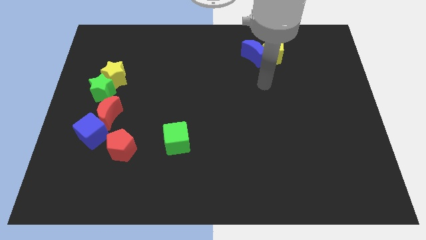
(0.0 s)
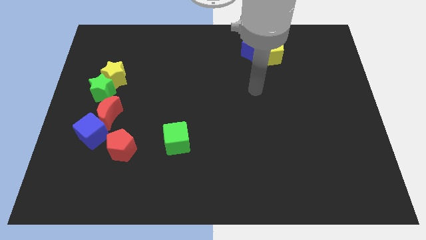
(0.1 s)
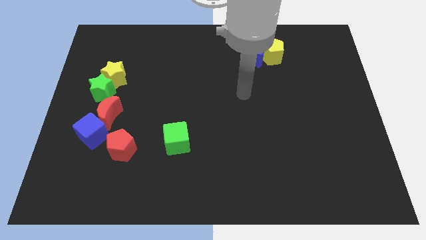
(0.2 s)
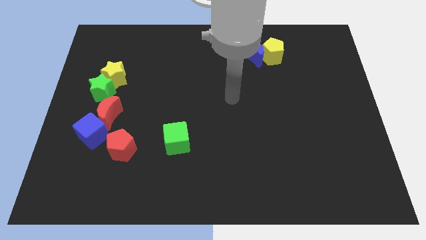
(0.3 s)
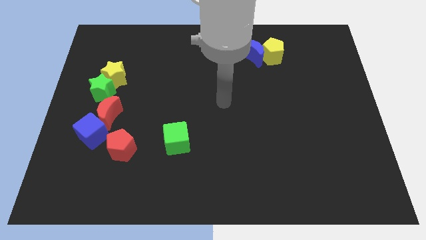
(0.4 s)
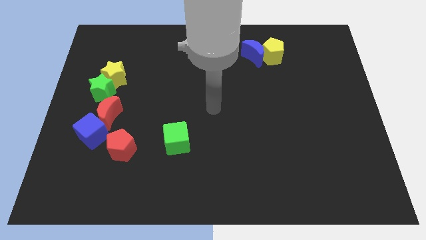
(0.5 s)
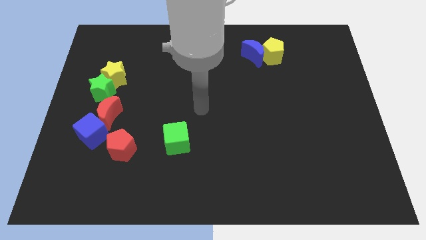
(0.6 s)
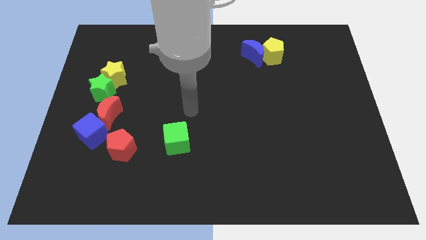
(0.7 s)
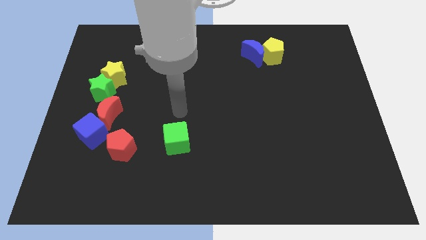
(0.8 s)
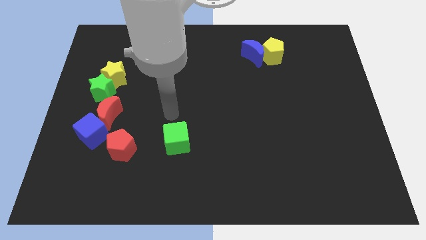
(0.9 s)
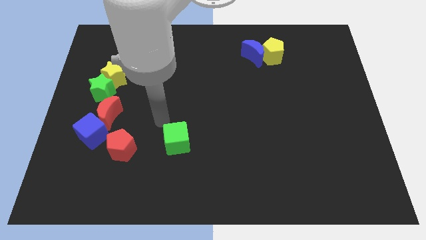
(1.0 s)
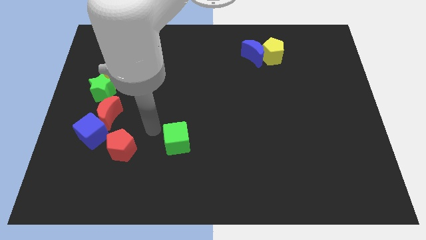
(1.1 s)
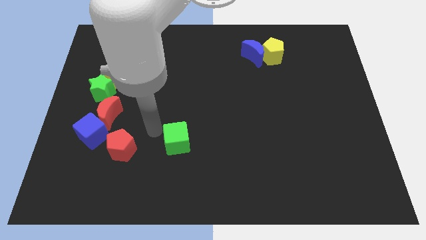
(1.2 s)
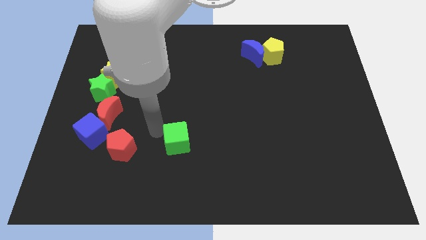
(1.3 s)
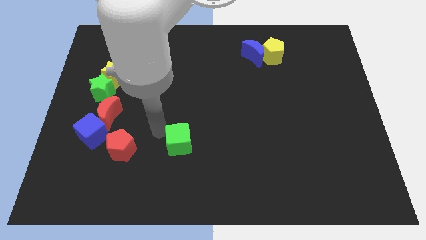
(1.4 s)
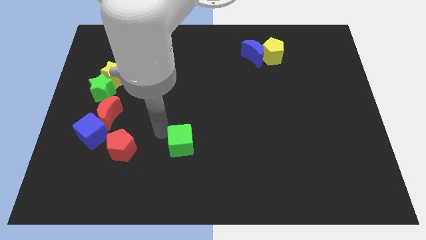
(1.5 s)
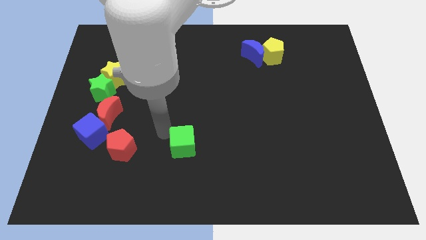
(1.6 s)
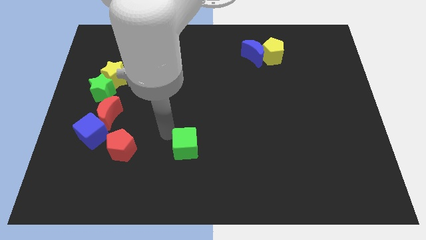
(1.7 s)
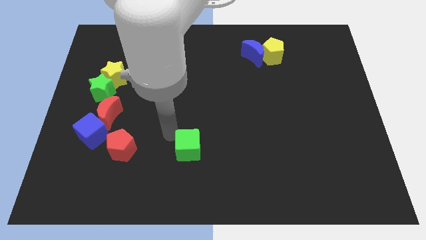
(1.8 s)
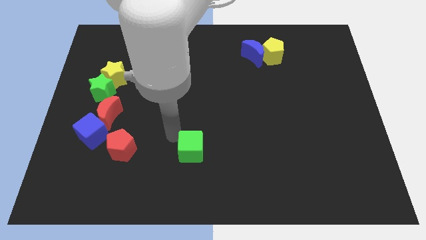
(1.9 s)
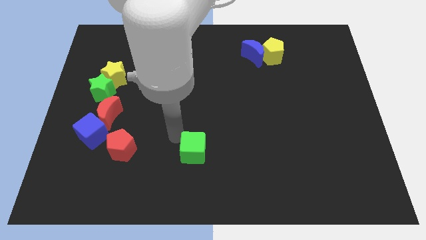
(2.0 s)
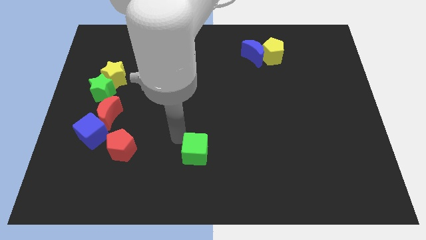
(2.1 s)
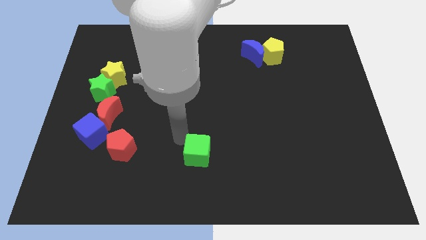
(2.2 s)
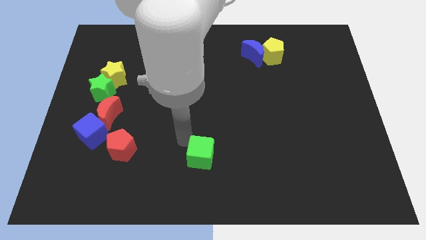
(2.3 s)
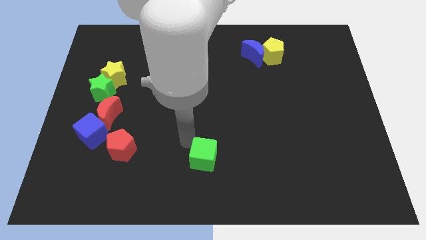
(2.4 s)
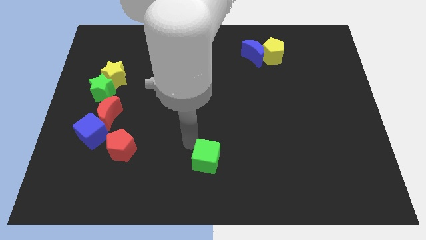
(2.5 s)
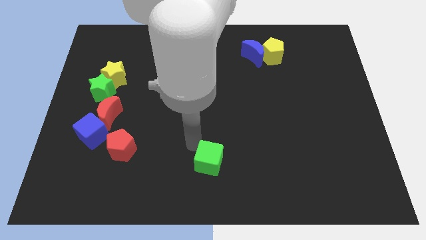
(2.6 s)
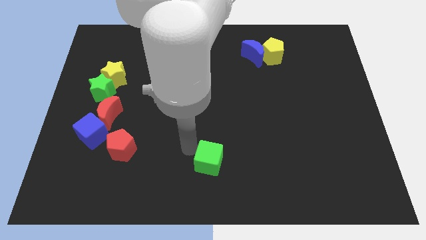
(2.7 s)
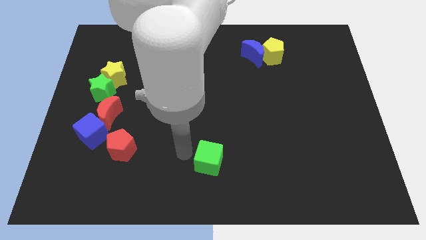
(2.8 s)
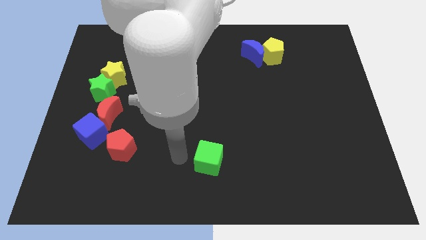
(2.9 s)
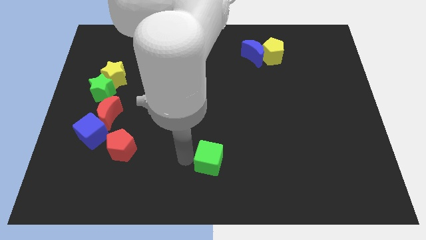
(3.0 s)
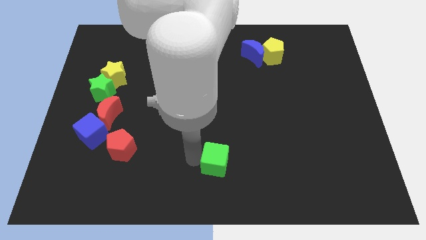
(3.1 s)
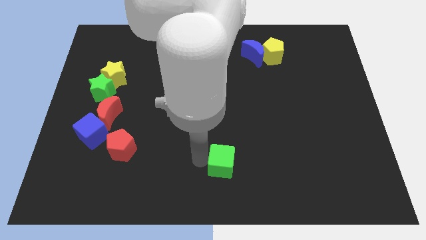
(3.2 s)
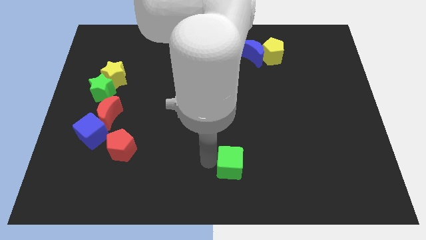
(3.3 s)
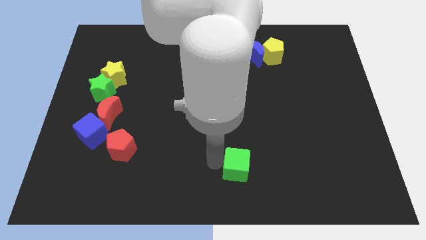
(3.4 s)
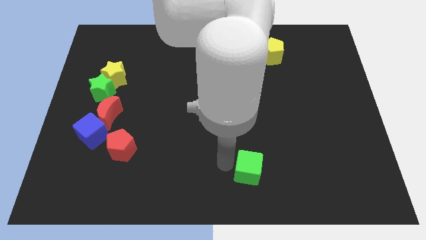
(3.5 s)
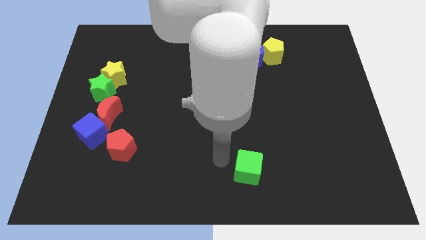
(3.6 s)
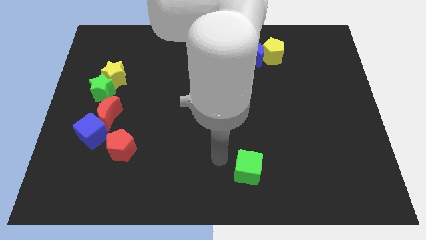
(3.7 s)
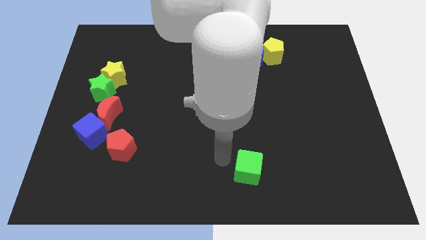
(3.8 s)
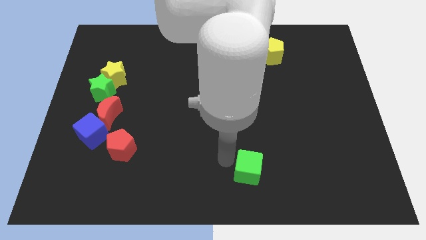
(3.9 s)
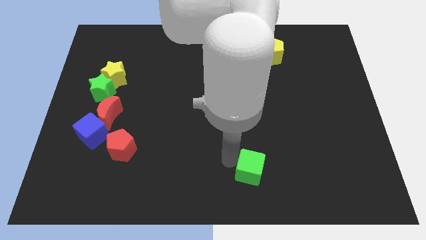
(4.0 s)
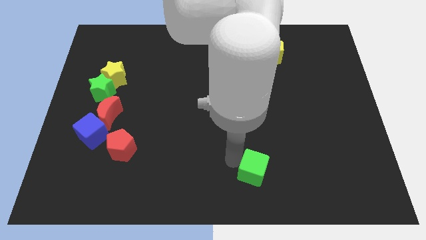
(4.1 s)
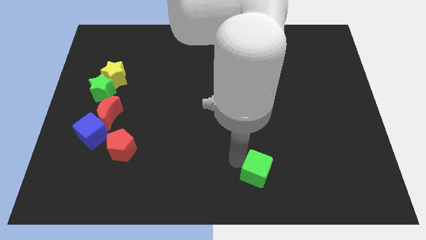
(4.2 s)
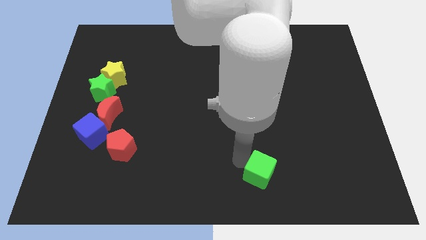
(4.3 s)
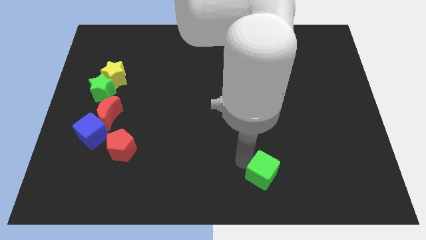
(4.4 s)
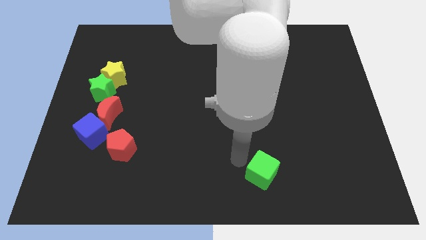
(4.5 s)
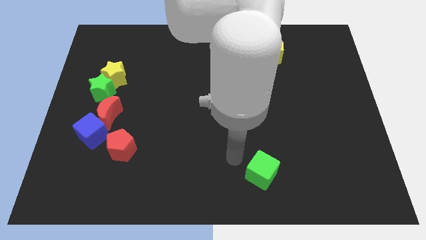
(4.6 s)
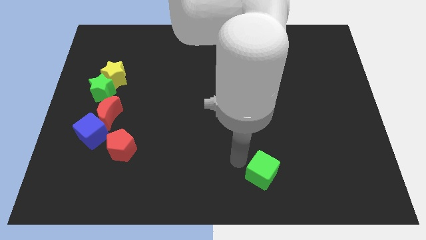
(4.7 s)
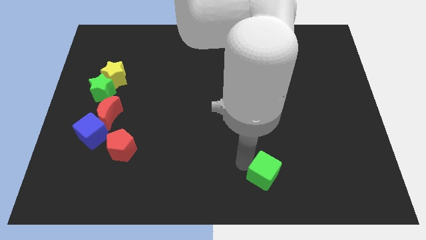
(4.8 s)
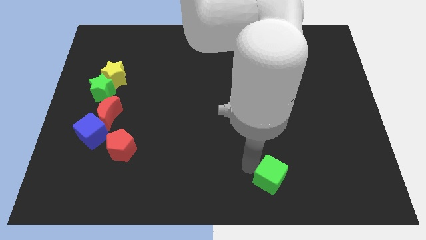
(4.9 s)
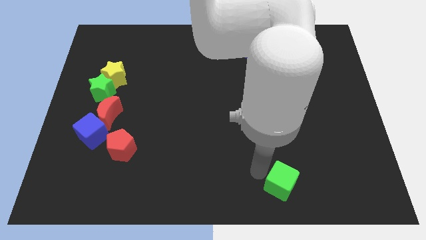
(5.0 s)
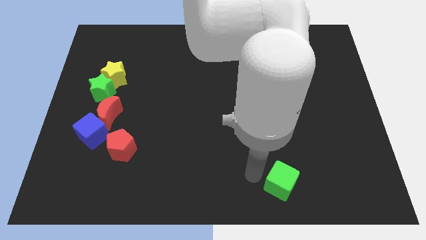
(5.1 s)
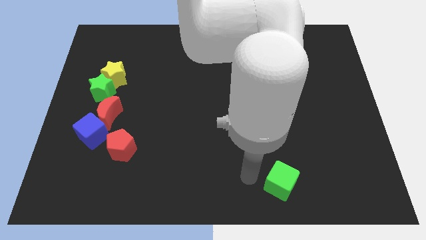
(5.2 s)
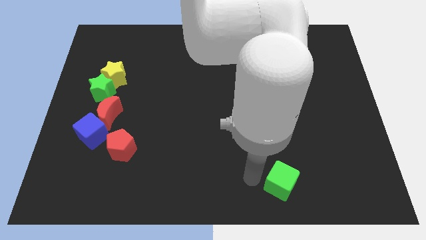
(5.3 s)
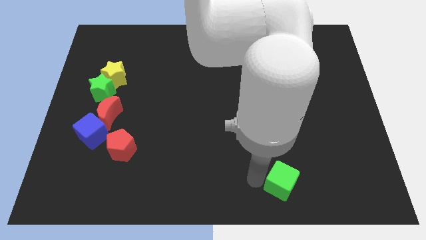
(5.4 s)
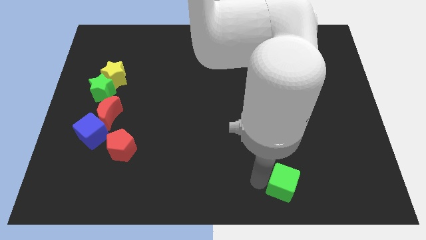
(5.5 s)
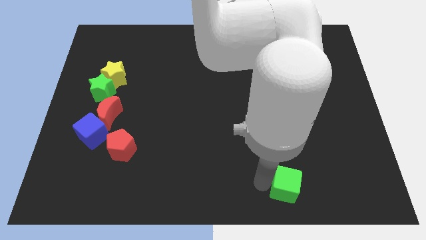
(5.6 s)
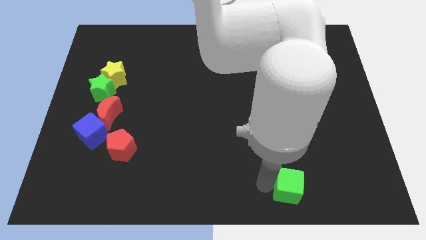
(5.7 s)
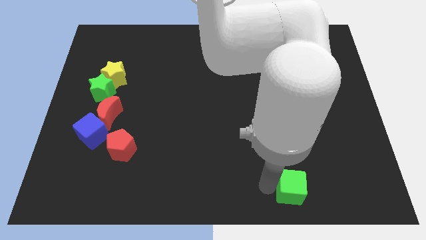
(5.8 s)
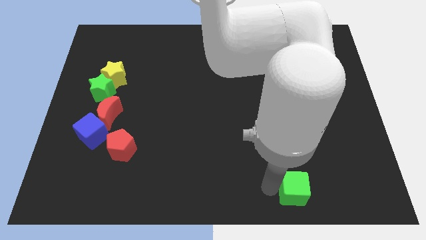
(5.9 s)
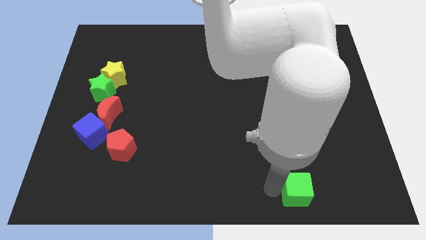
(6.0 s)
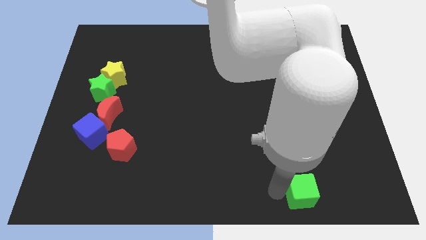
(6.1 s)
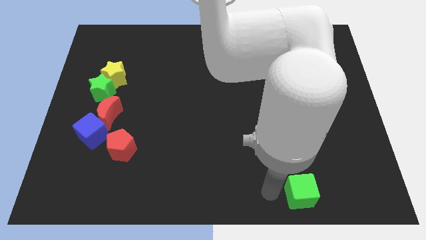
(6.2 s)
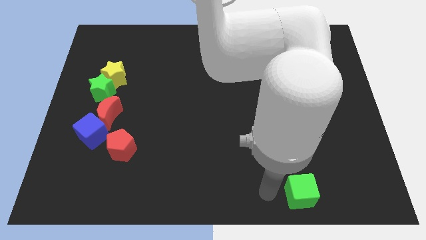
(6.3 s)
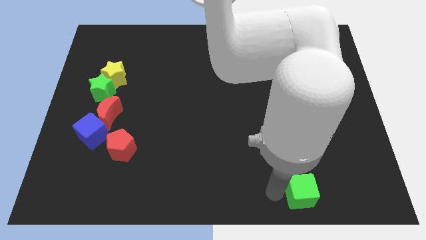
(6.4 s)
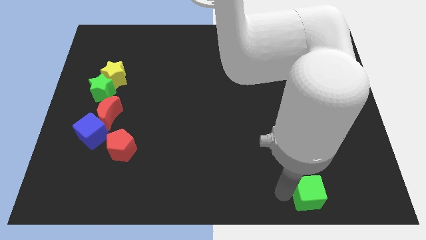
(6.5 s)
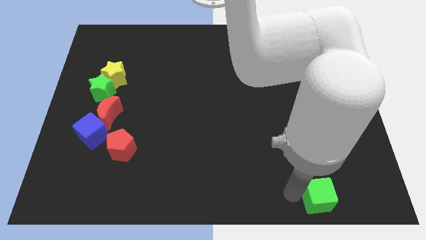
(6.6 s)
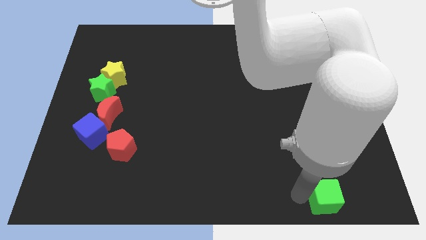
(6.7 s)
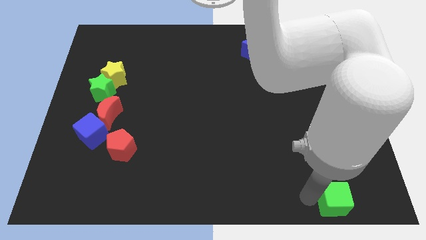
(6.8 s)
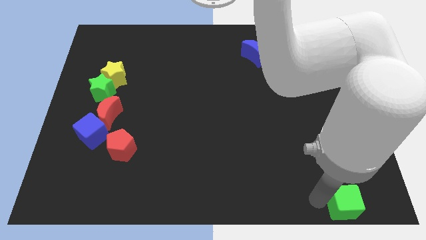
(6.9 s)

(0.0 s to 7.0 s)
move the green cube to the bottom right
